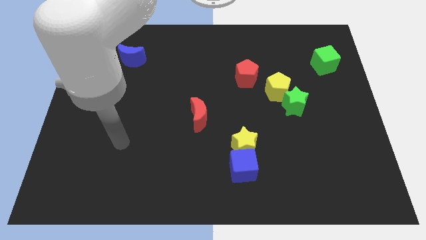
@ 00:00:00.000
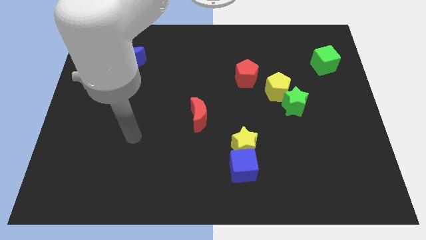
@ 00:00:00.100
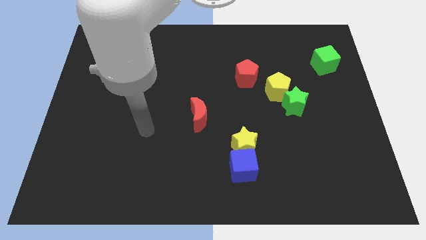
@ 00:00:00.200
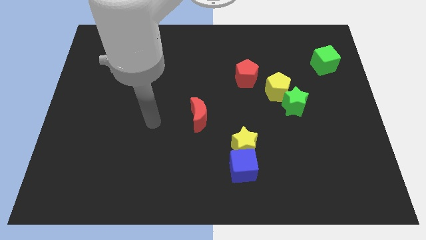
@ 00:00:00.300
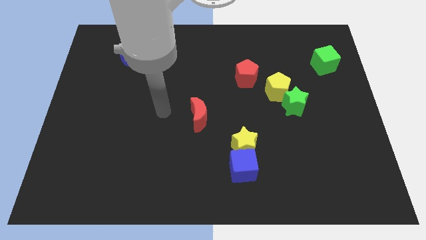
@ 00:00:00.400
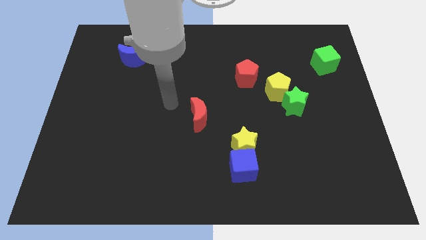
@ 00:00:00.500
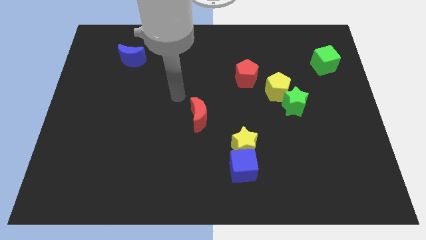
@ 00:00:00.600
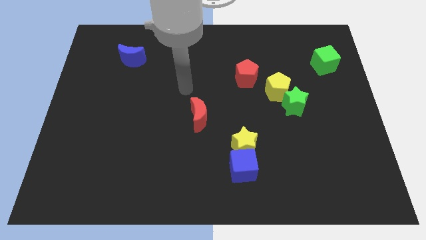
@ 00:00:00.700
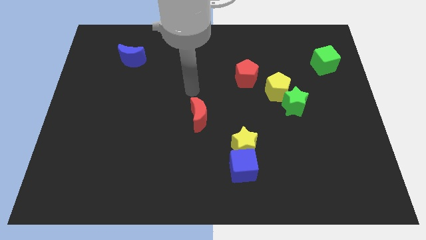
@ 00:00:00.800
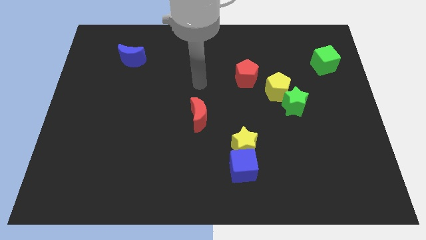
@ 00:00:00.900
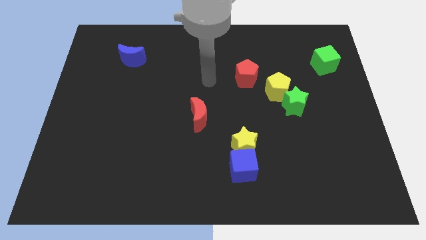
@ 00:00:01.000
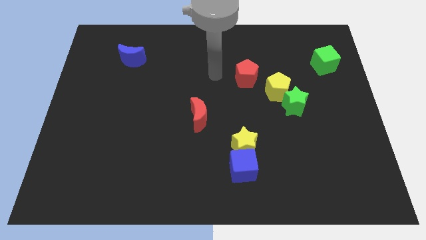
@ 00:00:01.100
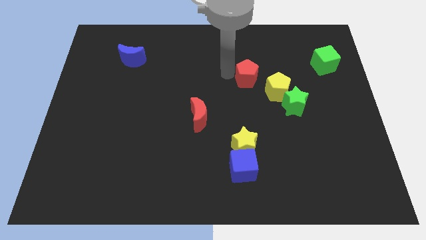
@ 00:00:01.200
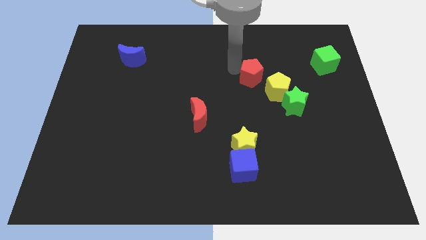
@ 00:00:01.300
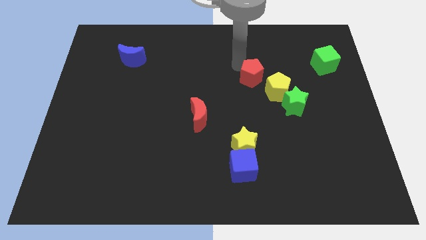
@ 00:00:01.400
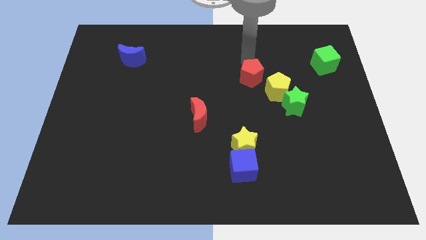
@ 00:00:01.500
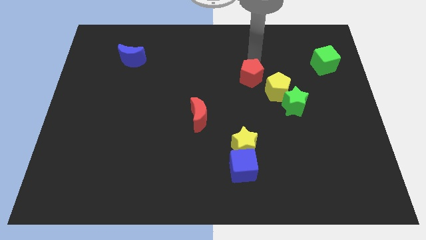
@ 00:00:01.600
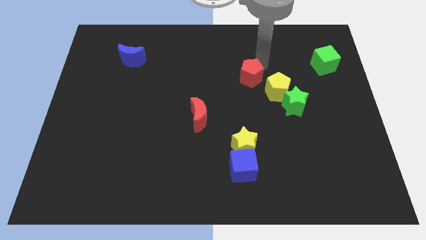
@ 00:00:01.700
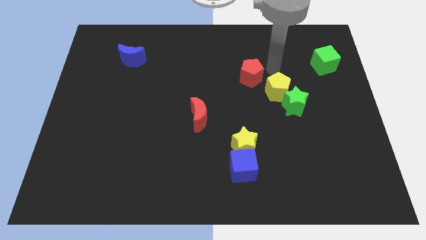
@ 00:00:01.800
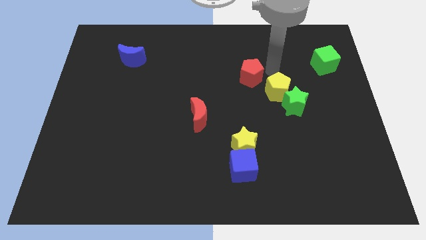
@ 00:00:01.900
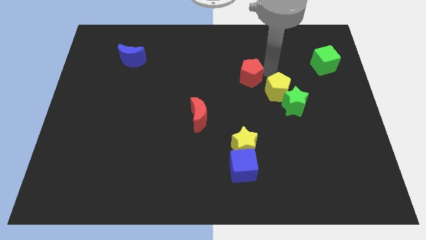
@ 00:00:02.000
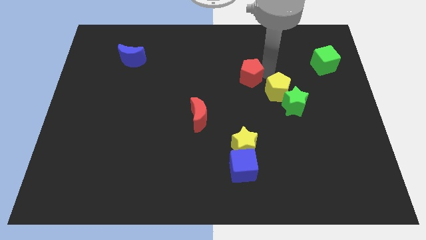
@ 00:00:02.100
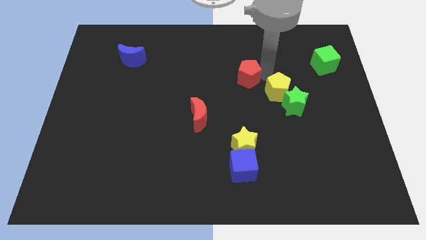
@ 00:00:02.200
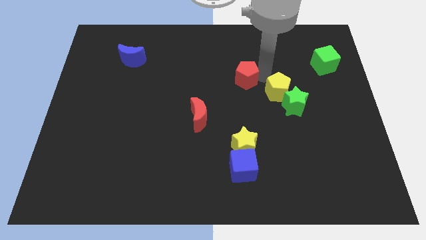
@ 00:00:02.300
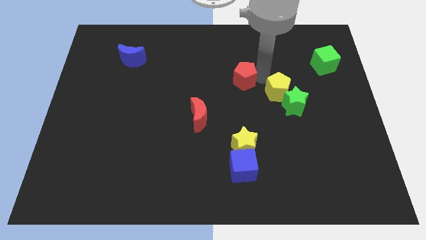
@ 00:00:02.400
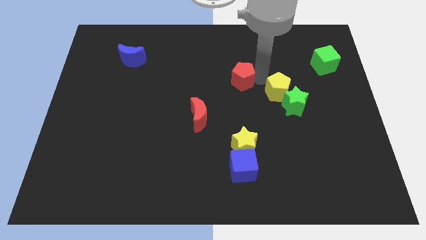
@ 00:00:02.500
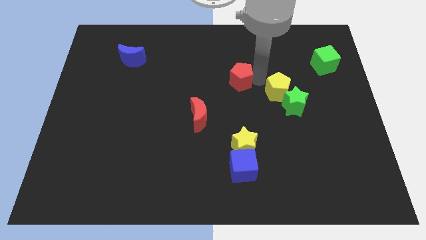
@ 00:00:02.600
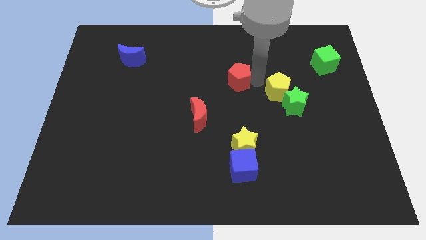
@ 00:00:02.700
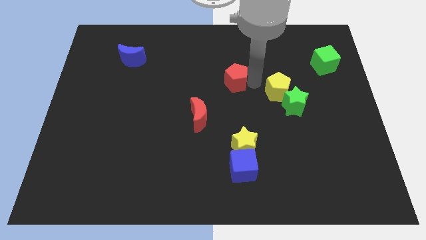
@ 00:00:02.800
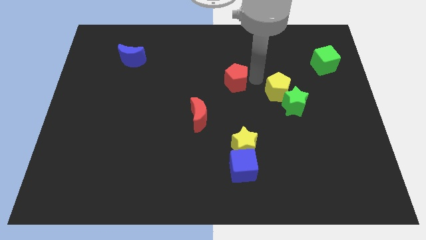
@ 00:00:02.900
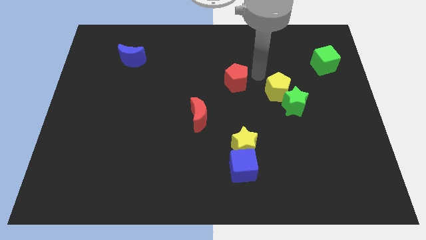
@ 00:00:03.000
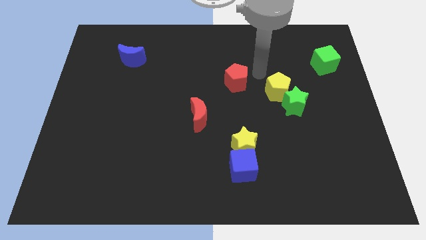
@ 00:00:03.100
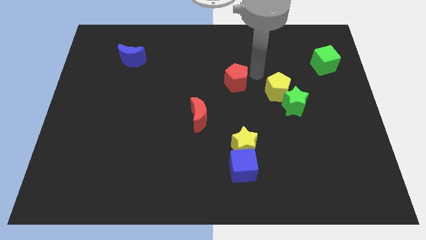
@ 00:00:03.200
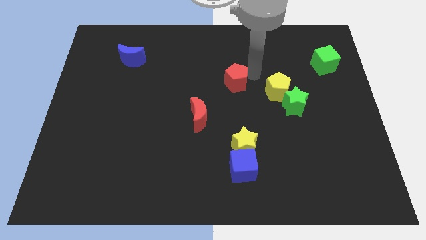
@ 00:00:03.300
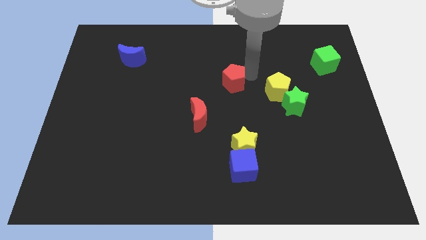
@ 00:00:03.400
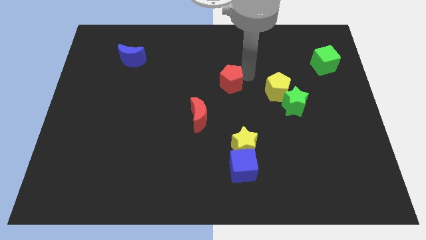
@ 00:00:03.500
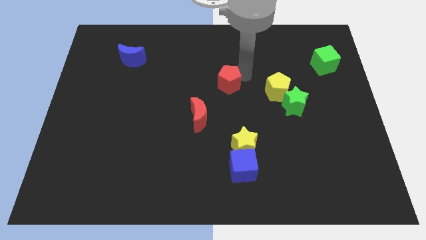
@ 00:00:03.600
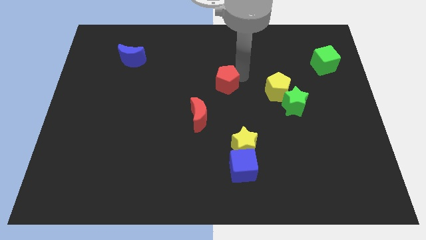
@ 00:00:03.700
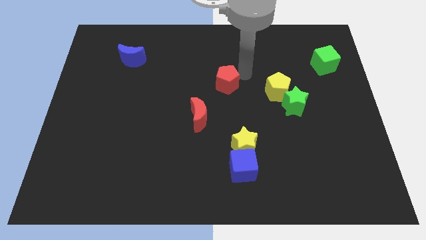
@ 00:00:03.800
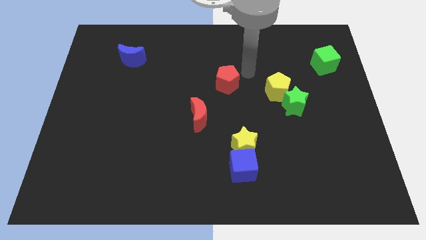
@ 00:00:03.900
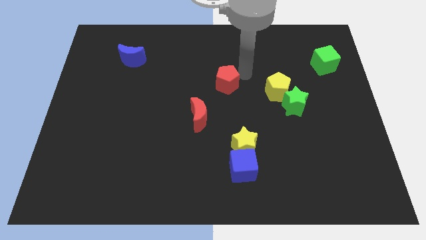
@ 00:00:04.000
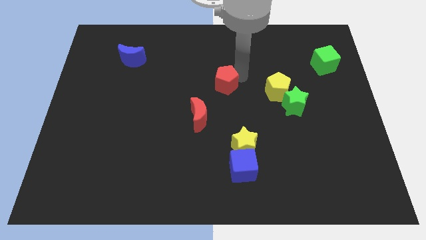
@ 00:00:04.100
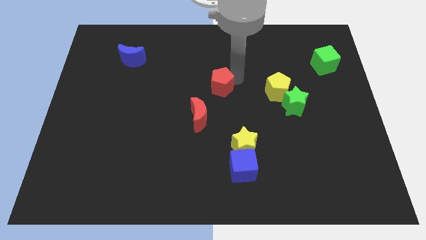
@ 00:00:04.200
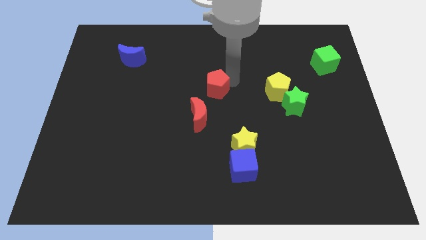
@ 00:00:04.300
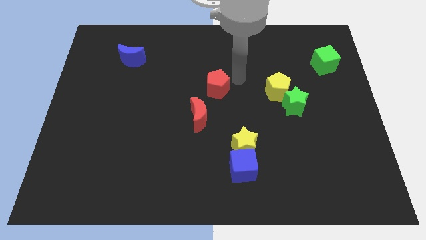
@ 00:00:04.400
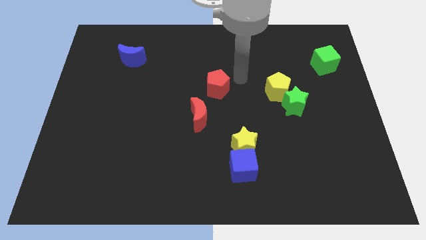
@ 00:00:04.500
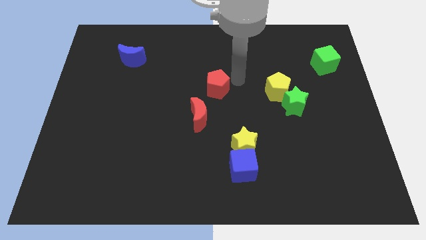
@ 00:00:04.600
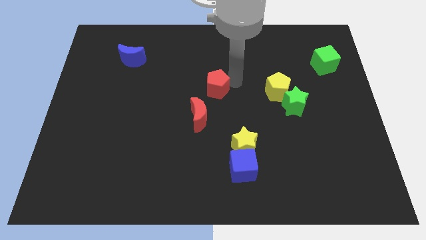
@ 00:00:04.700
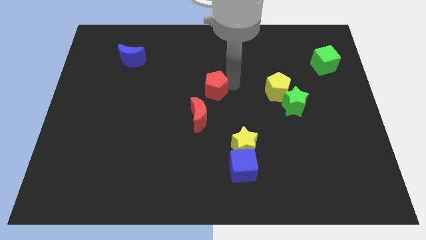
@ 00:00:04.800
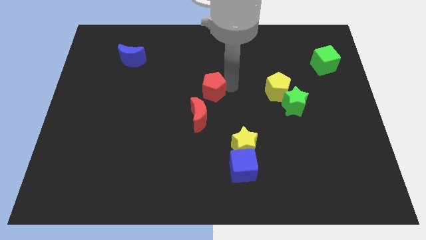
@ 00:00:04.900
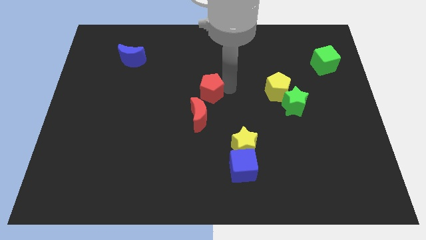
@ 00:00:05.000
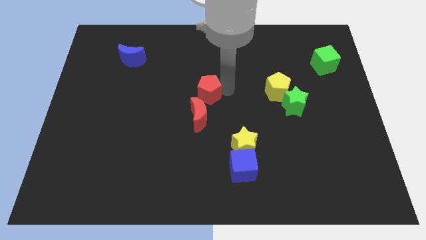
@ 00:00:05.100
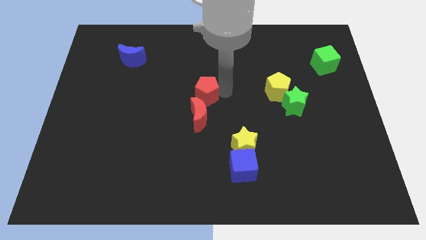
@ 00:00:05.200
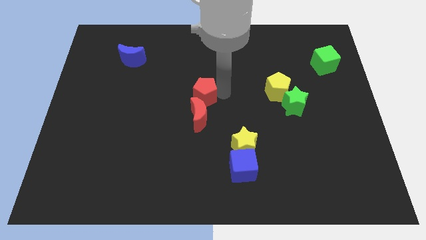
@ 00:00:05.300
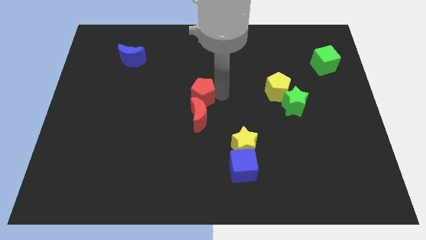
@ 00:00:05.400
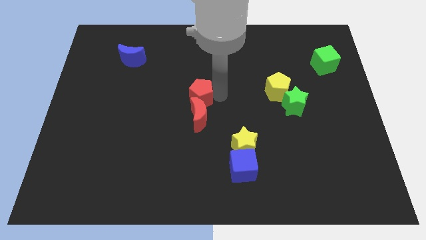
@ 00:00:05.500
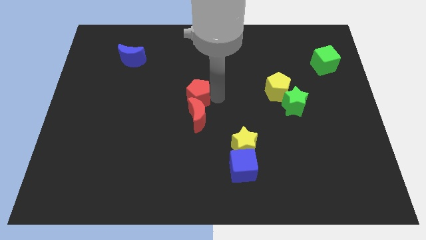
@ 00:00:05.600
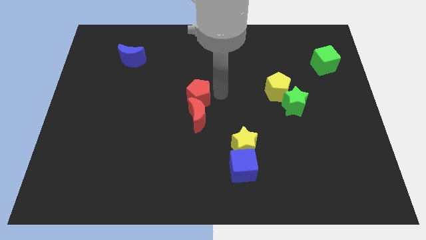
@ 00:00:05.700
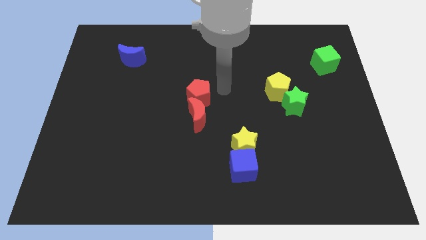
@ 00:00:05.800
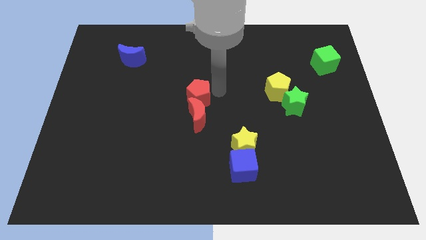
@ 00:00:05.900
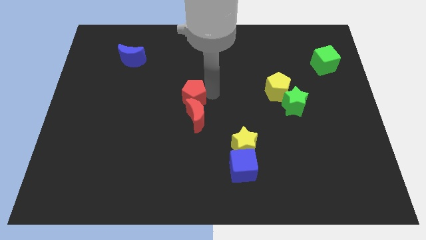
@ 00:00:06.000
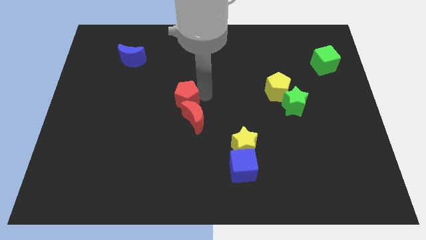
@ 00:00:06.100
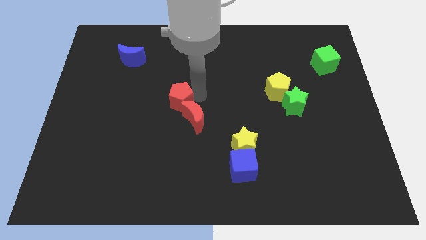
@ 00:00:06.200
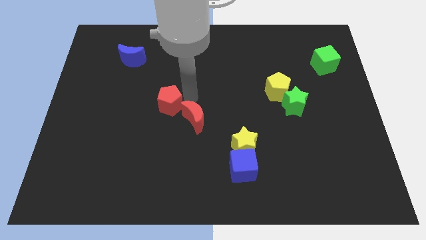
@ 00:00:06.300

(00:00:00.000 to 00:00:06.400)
move the red pentagon to the left side of the red moon
